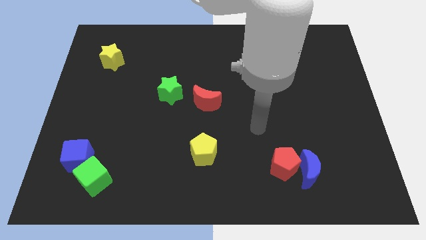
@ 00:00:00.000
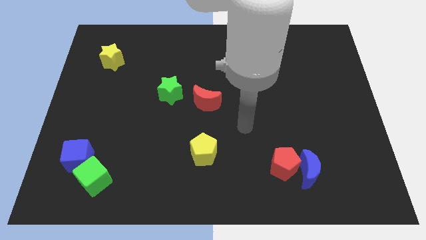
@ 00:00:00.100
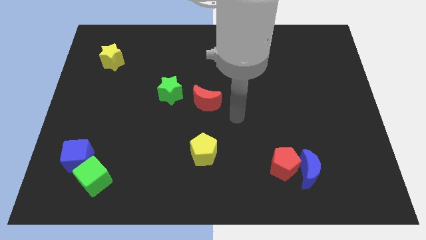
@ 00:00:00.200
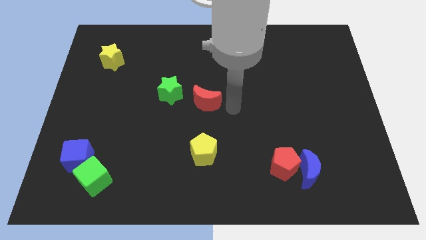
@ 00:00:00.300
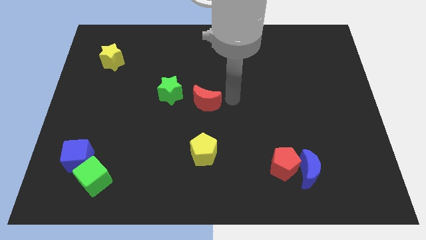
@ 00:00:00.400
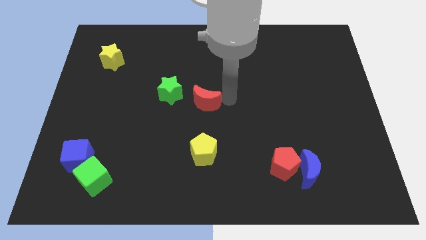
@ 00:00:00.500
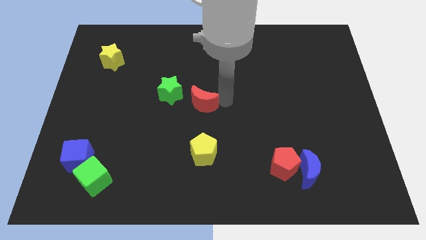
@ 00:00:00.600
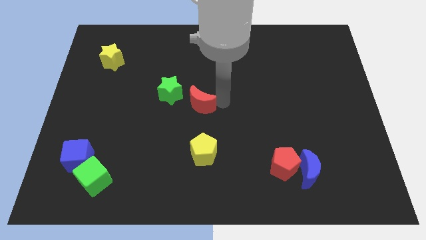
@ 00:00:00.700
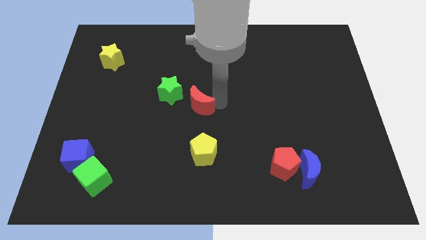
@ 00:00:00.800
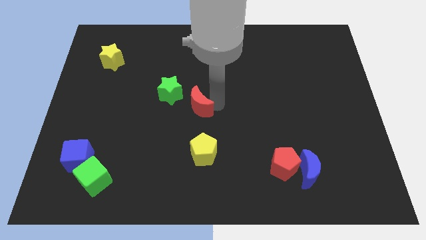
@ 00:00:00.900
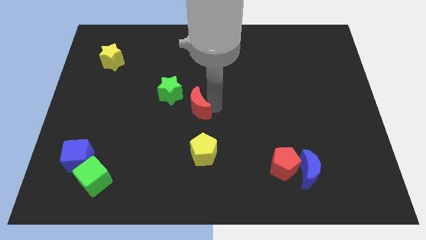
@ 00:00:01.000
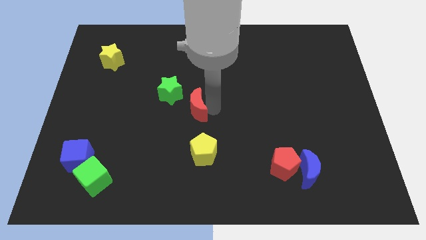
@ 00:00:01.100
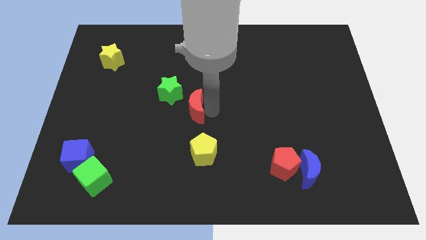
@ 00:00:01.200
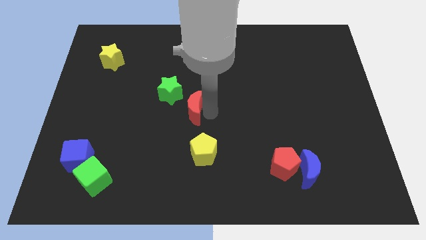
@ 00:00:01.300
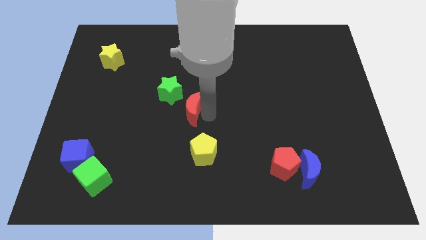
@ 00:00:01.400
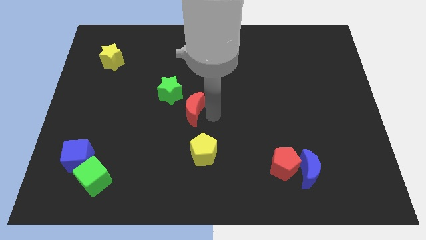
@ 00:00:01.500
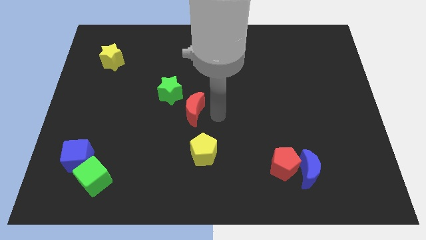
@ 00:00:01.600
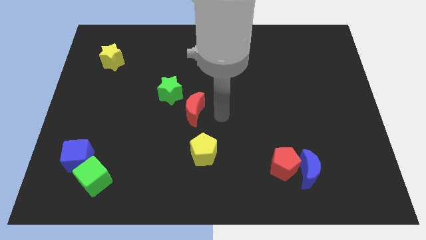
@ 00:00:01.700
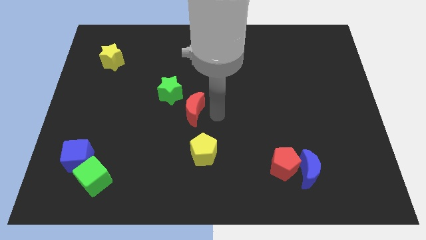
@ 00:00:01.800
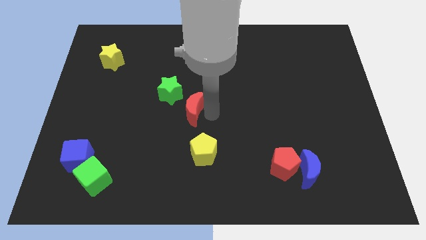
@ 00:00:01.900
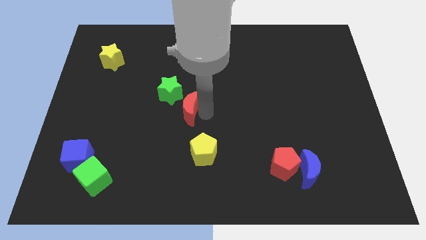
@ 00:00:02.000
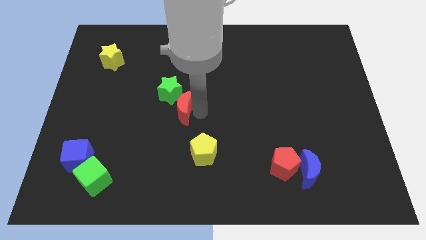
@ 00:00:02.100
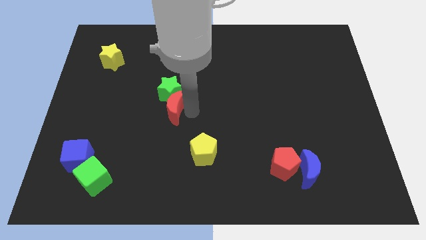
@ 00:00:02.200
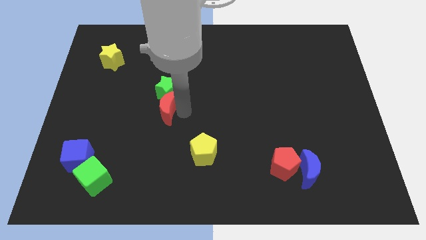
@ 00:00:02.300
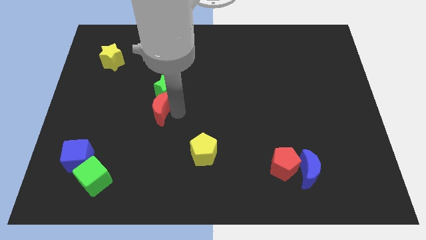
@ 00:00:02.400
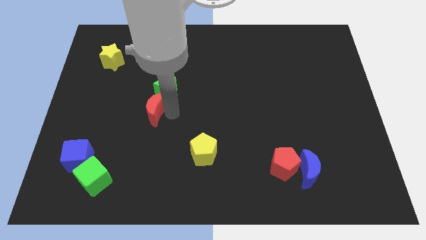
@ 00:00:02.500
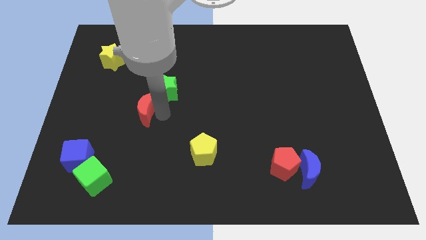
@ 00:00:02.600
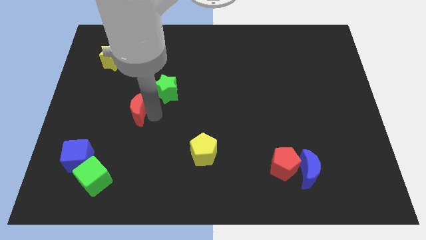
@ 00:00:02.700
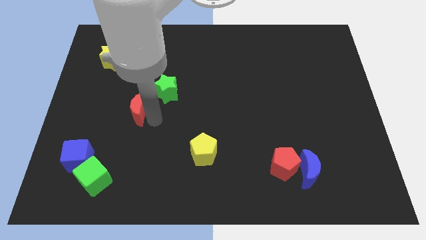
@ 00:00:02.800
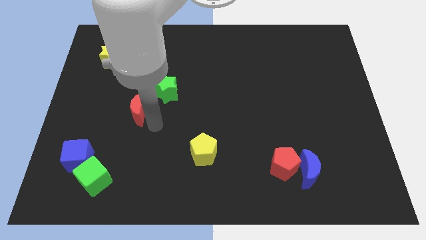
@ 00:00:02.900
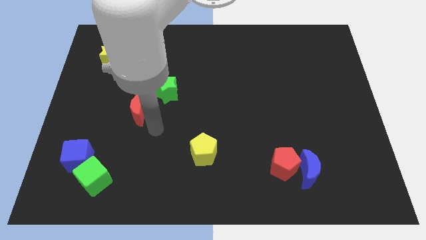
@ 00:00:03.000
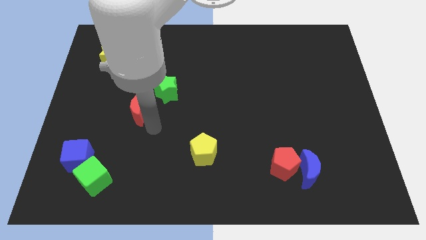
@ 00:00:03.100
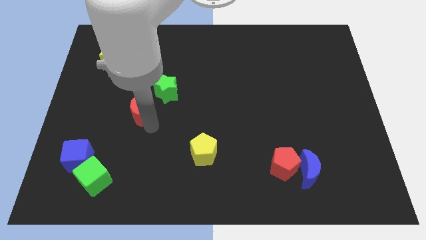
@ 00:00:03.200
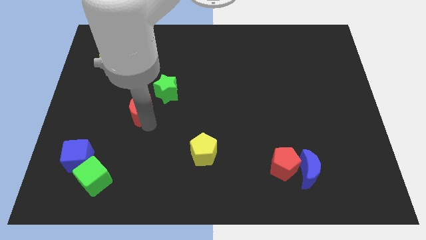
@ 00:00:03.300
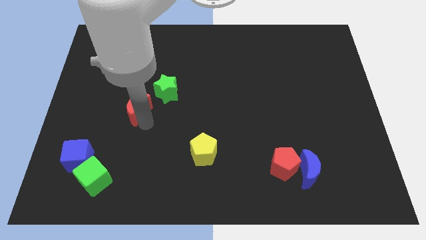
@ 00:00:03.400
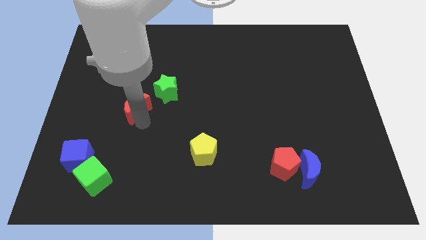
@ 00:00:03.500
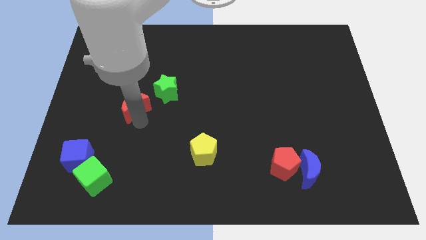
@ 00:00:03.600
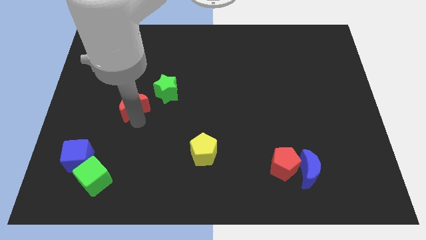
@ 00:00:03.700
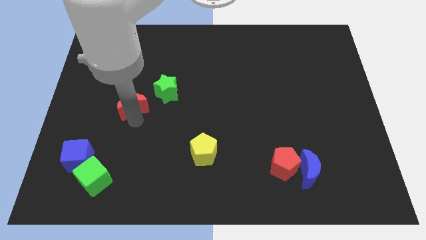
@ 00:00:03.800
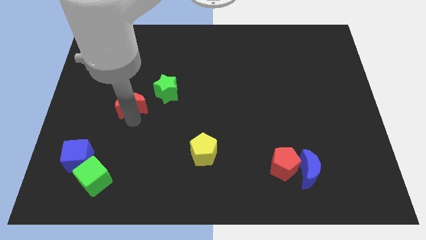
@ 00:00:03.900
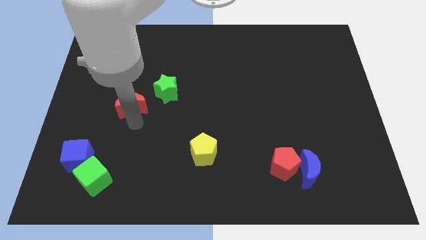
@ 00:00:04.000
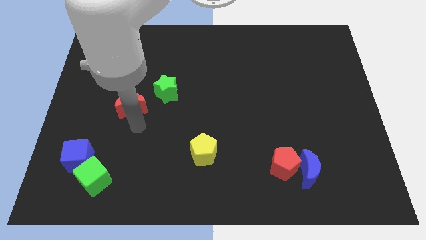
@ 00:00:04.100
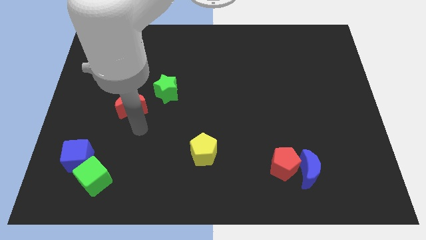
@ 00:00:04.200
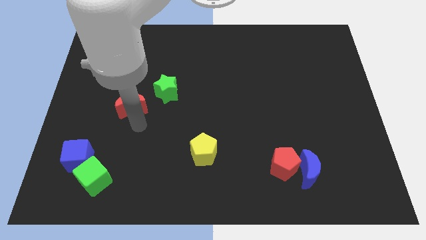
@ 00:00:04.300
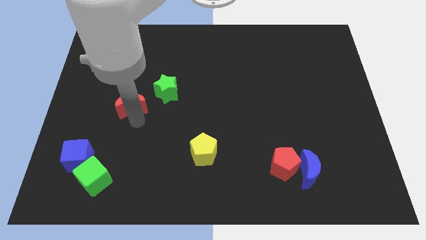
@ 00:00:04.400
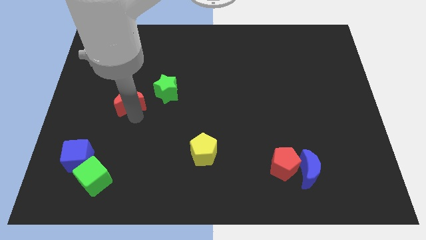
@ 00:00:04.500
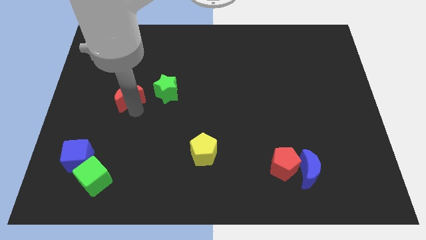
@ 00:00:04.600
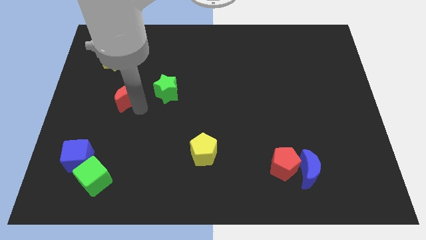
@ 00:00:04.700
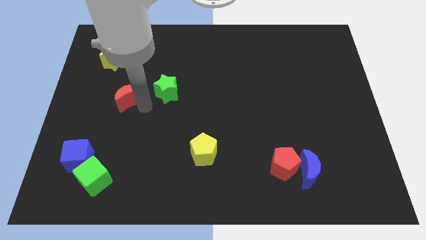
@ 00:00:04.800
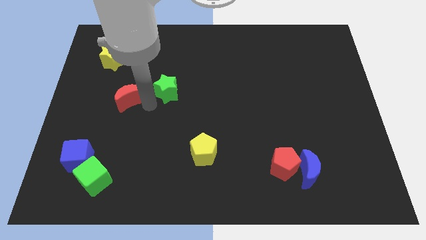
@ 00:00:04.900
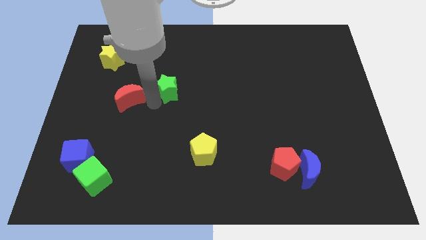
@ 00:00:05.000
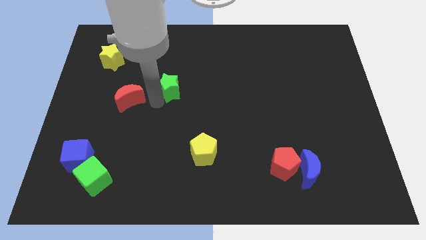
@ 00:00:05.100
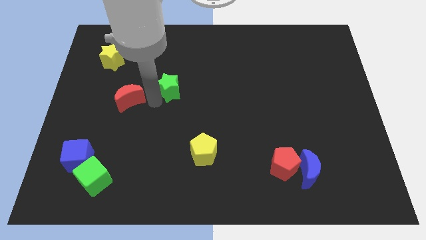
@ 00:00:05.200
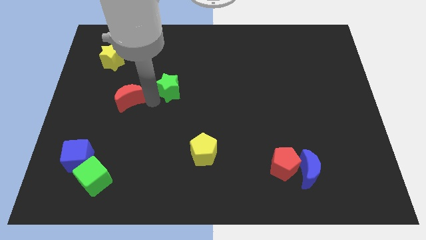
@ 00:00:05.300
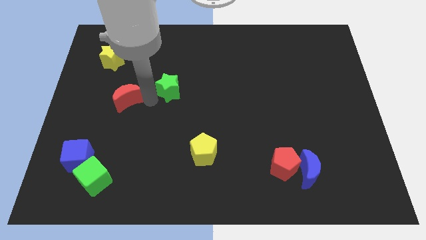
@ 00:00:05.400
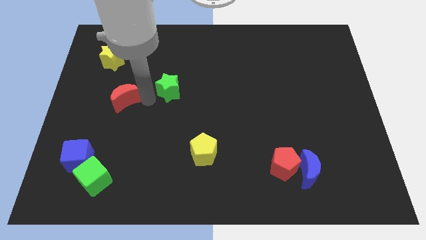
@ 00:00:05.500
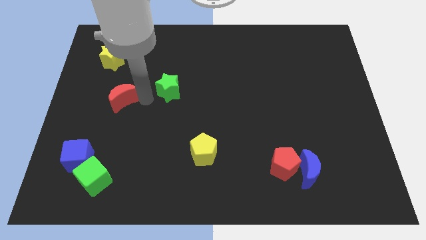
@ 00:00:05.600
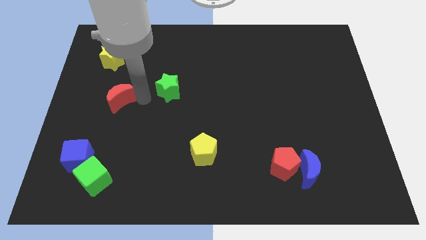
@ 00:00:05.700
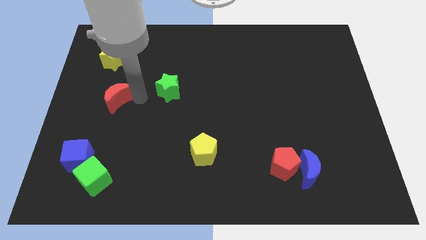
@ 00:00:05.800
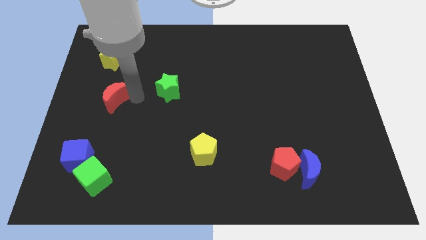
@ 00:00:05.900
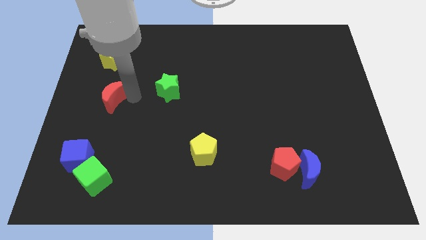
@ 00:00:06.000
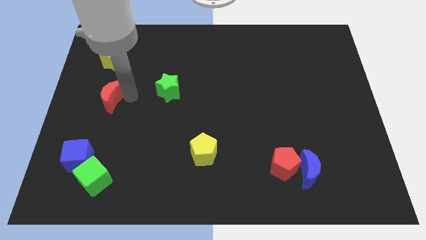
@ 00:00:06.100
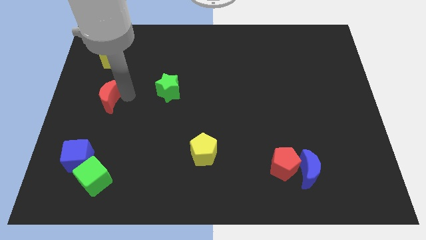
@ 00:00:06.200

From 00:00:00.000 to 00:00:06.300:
slide the red moon to the left side of the board
